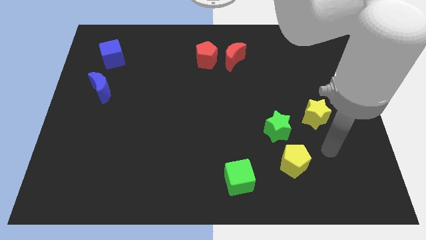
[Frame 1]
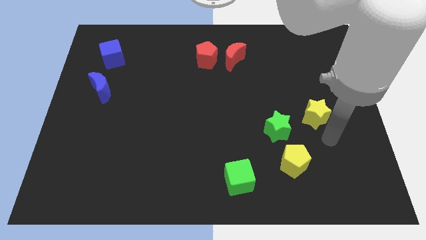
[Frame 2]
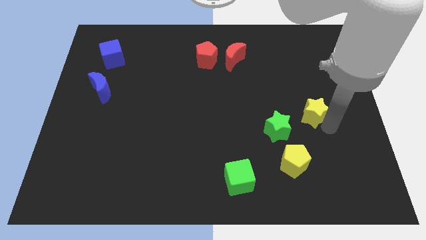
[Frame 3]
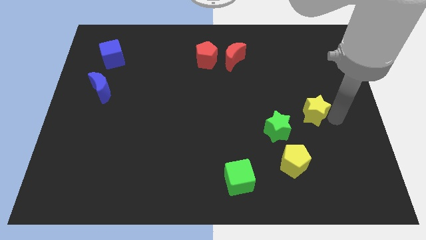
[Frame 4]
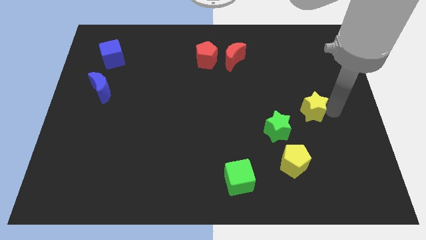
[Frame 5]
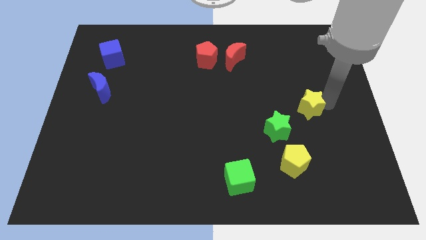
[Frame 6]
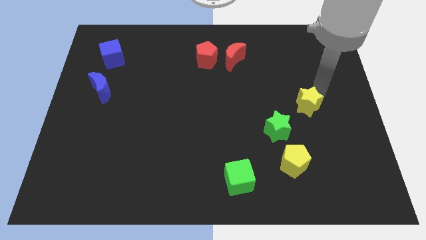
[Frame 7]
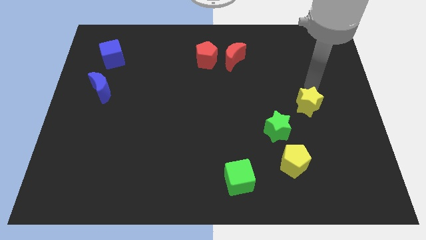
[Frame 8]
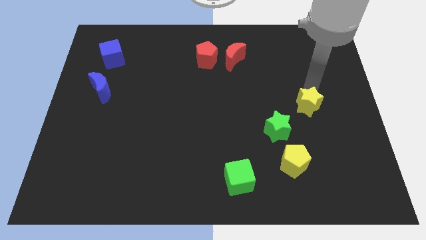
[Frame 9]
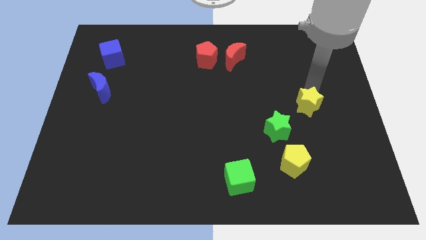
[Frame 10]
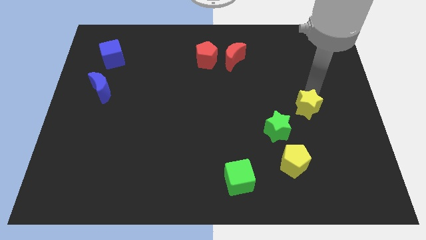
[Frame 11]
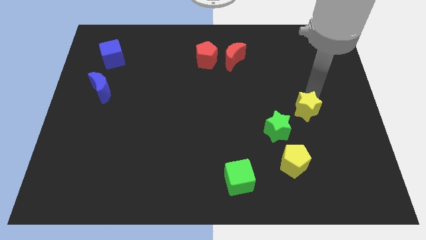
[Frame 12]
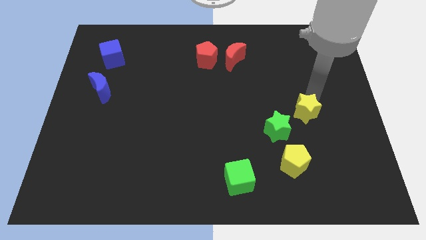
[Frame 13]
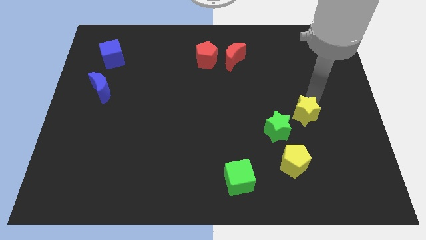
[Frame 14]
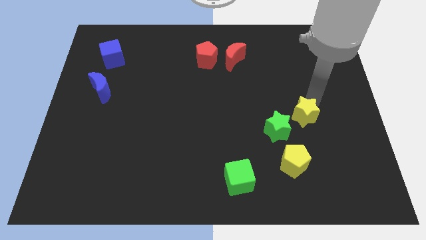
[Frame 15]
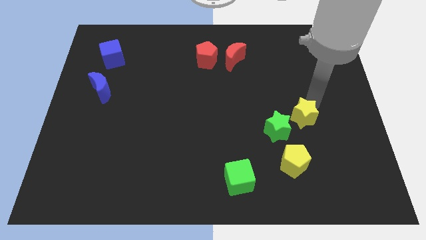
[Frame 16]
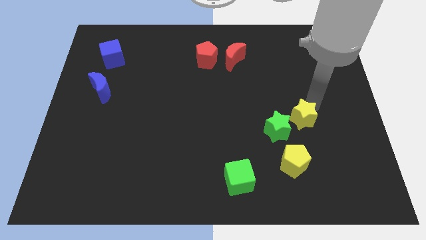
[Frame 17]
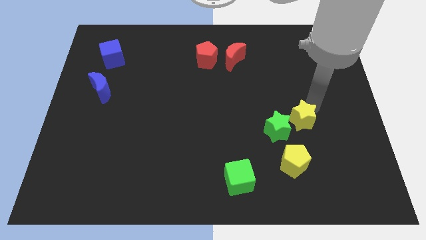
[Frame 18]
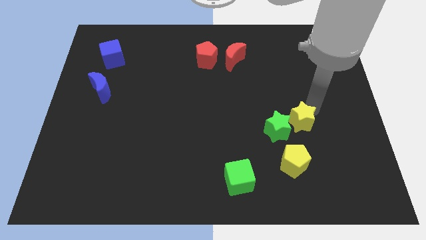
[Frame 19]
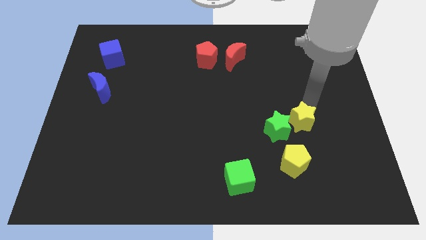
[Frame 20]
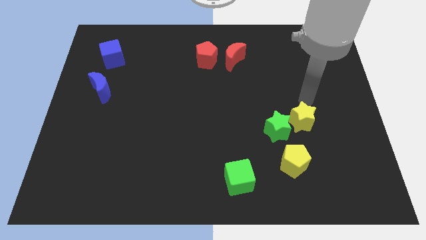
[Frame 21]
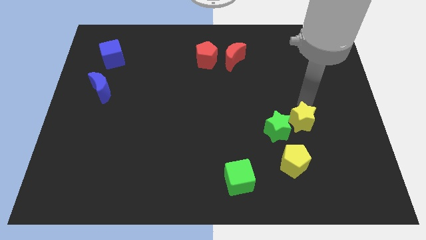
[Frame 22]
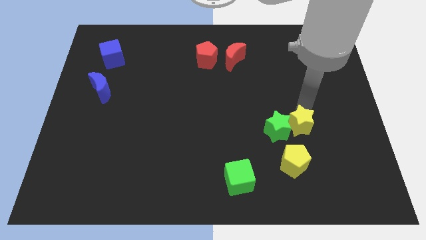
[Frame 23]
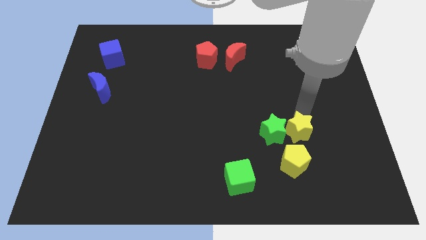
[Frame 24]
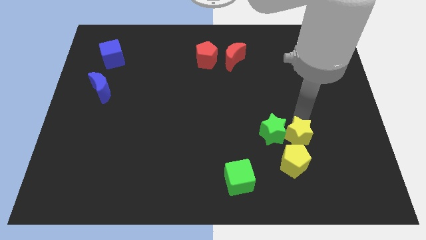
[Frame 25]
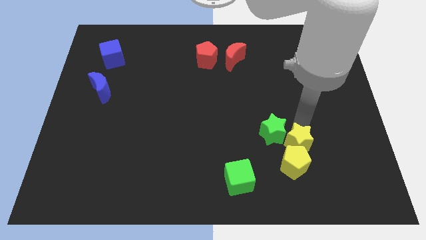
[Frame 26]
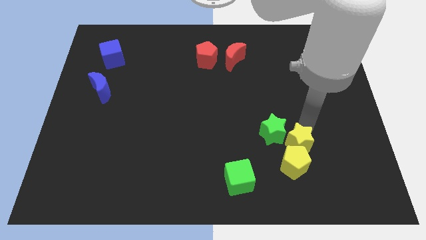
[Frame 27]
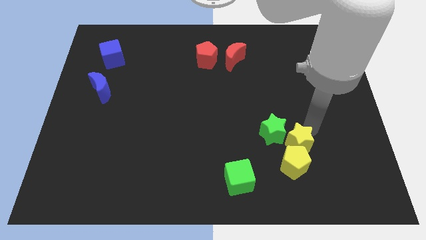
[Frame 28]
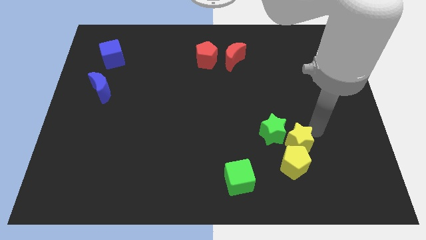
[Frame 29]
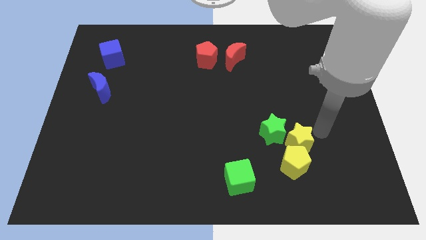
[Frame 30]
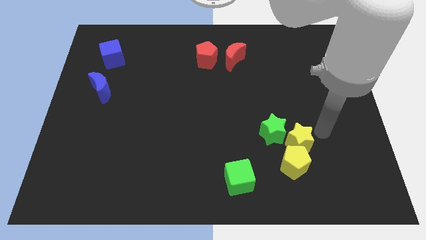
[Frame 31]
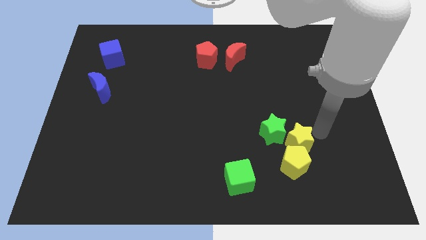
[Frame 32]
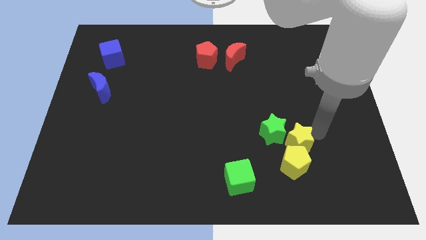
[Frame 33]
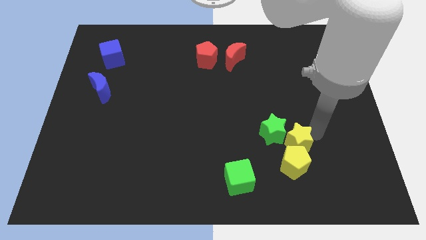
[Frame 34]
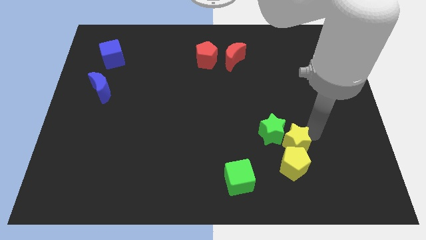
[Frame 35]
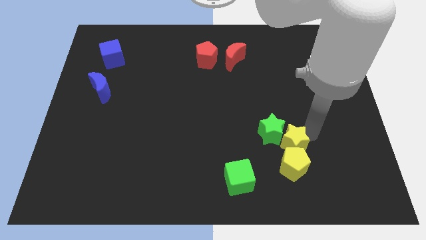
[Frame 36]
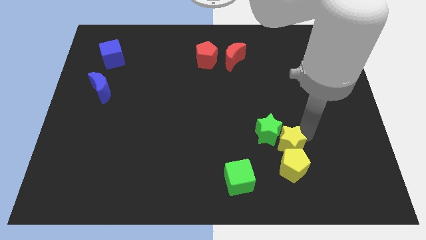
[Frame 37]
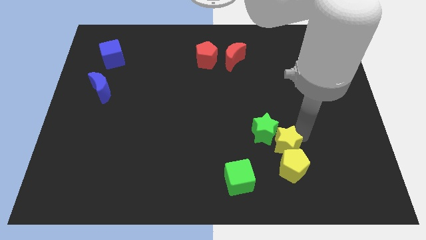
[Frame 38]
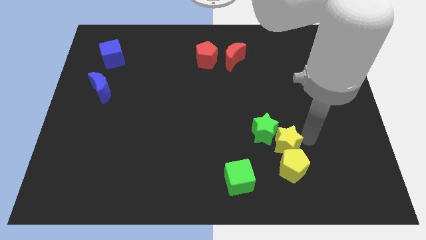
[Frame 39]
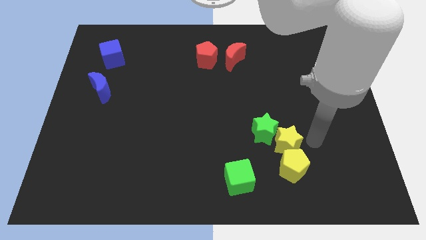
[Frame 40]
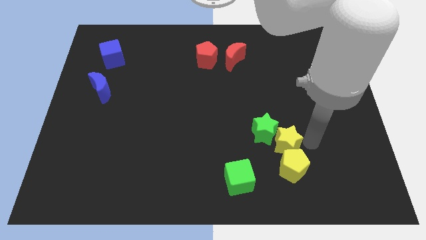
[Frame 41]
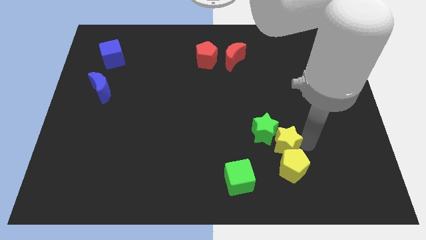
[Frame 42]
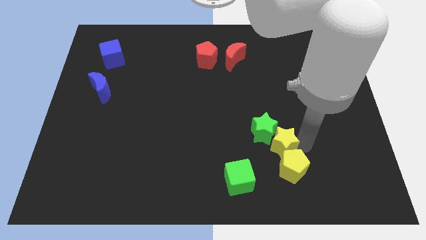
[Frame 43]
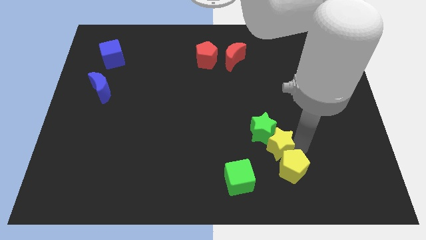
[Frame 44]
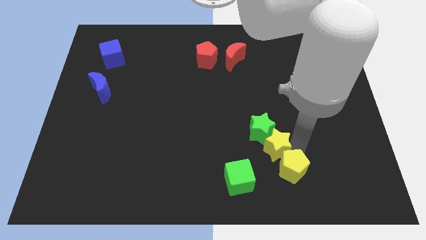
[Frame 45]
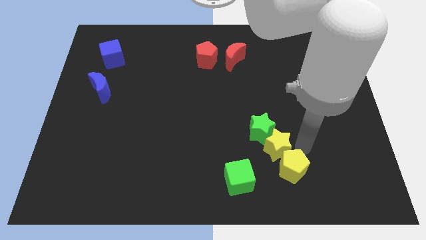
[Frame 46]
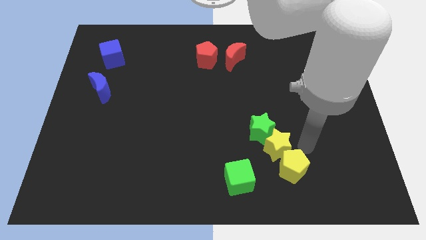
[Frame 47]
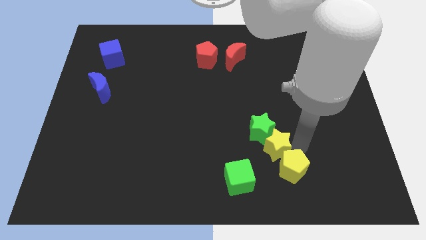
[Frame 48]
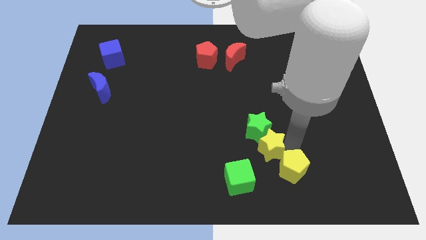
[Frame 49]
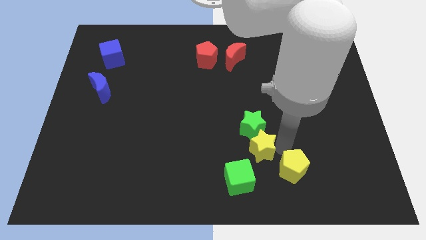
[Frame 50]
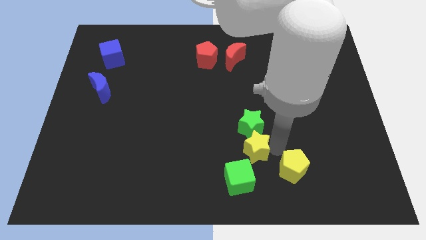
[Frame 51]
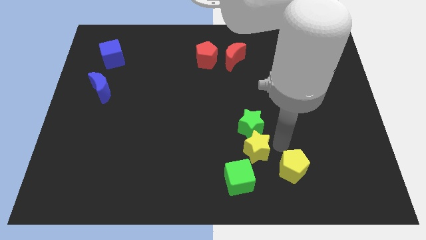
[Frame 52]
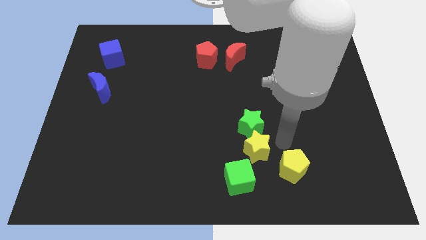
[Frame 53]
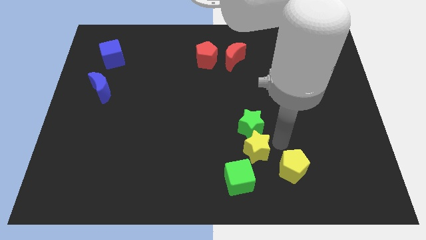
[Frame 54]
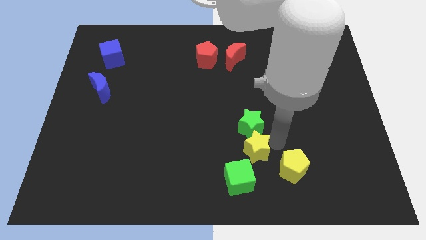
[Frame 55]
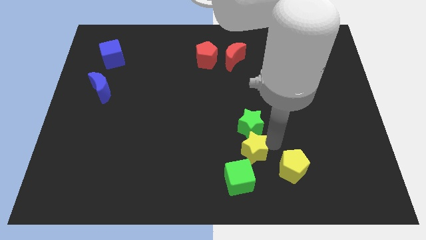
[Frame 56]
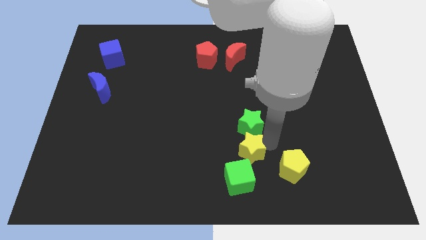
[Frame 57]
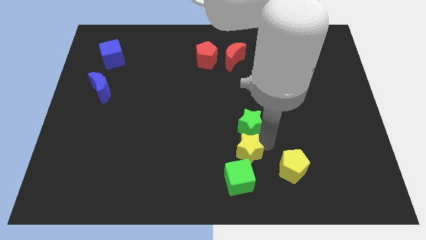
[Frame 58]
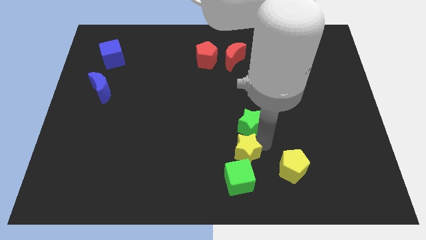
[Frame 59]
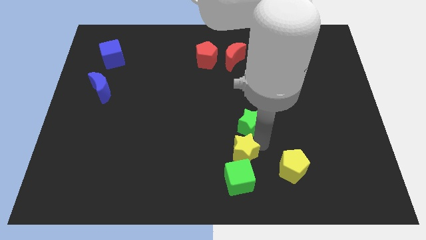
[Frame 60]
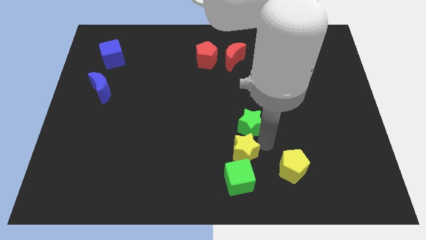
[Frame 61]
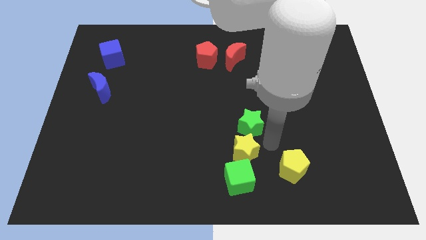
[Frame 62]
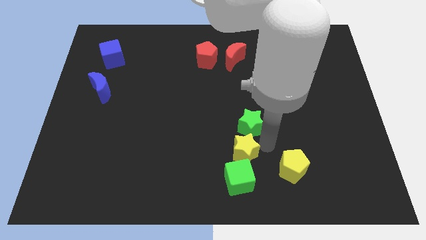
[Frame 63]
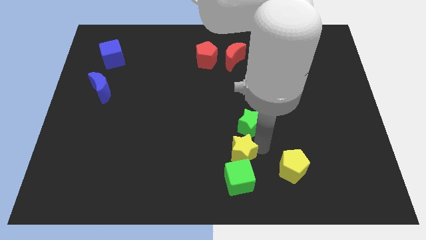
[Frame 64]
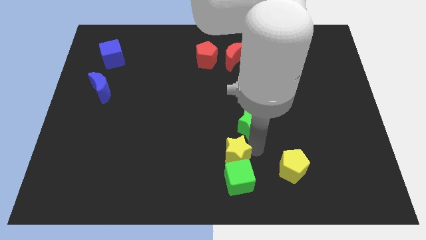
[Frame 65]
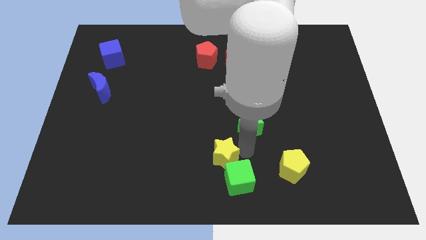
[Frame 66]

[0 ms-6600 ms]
put the yellow star to the bottom side
